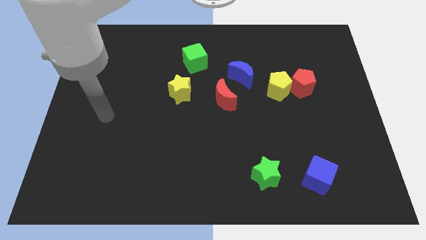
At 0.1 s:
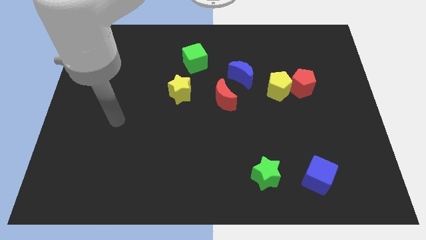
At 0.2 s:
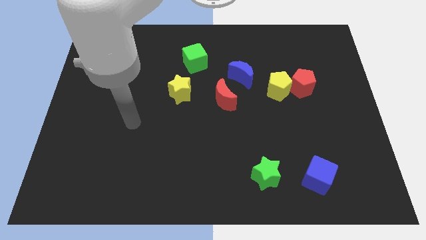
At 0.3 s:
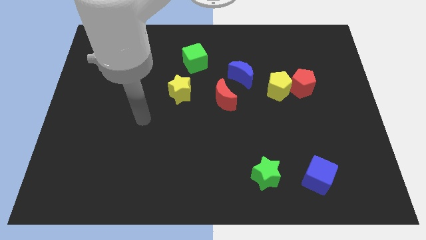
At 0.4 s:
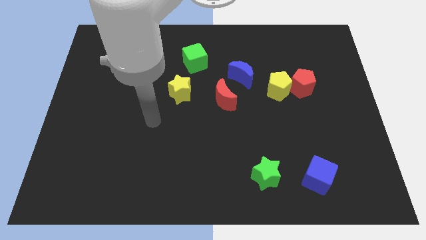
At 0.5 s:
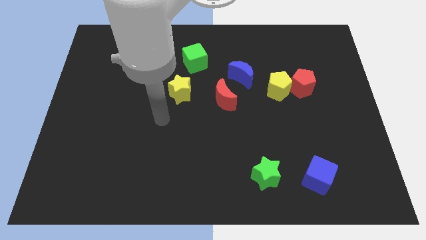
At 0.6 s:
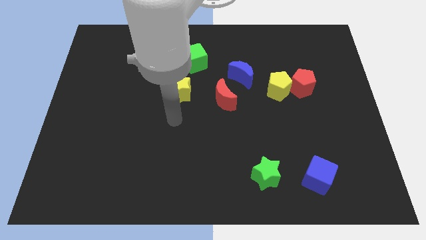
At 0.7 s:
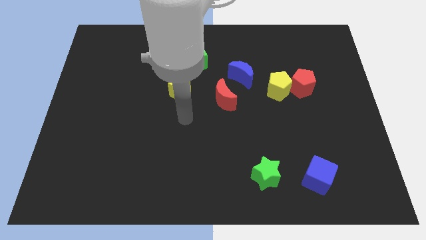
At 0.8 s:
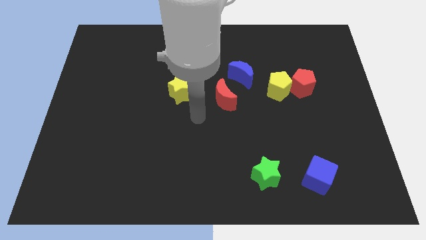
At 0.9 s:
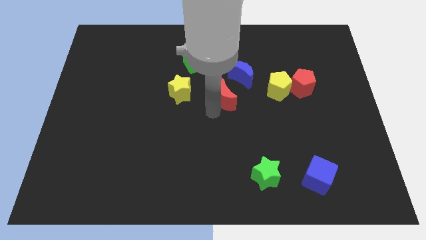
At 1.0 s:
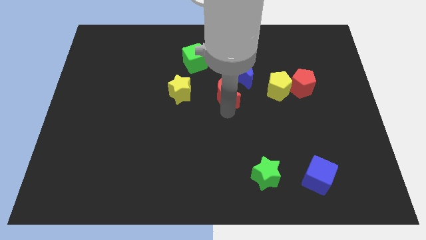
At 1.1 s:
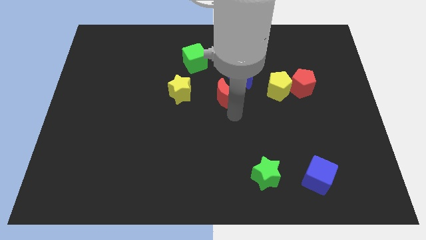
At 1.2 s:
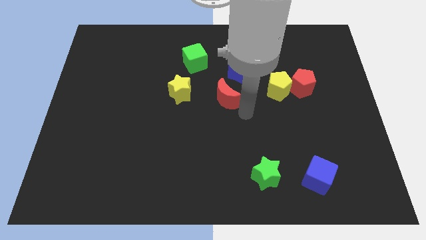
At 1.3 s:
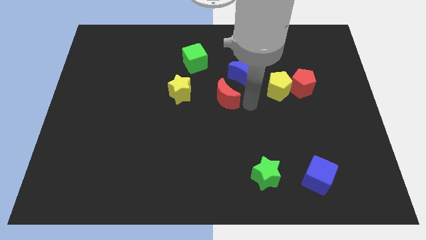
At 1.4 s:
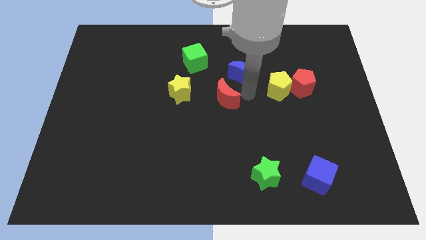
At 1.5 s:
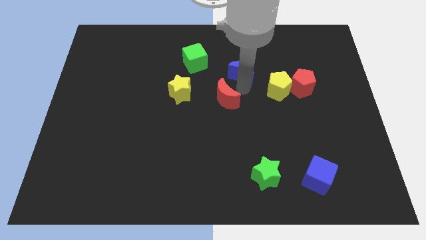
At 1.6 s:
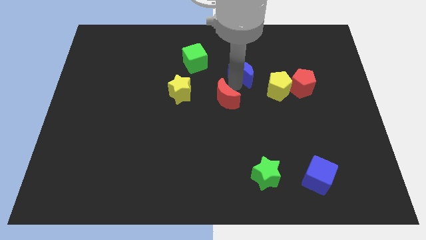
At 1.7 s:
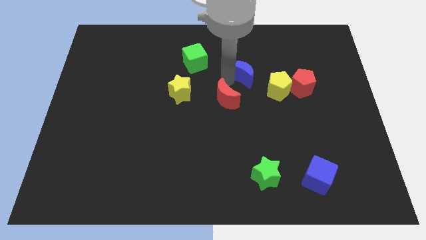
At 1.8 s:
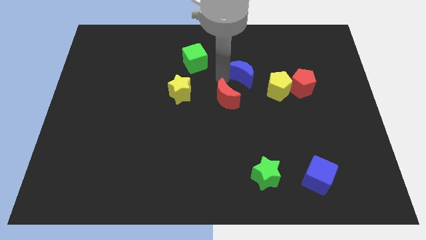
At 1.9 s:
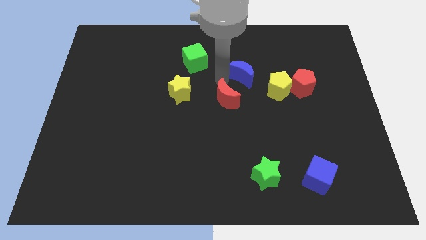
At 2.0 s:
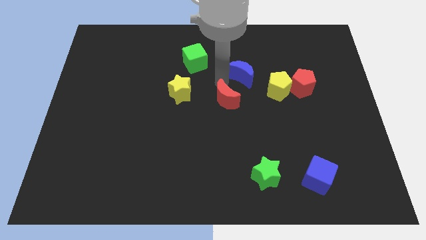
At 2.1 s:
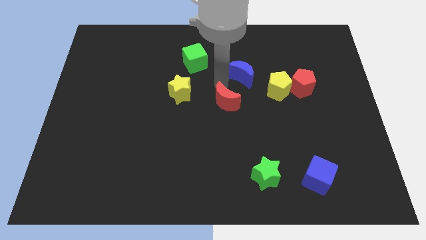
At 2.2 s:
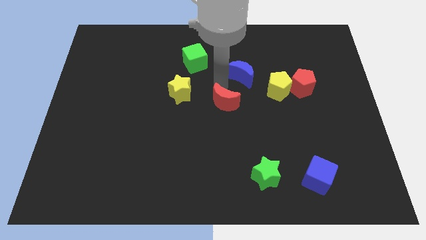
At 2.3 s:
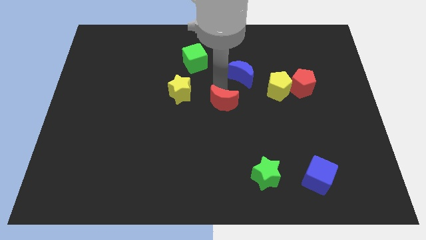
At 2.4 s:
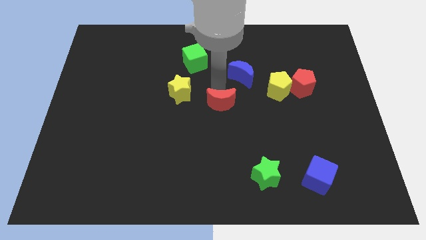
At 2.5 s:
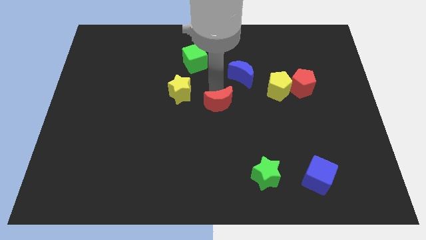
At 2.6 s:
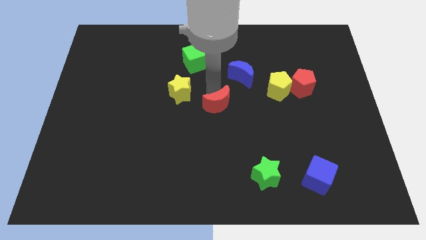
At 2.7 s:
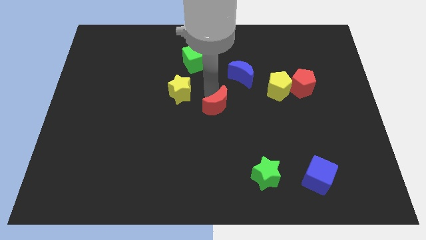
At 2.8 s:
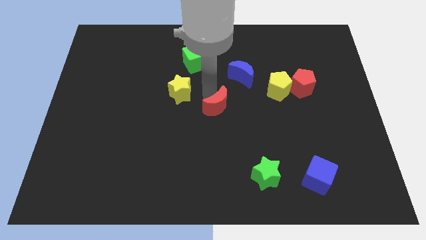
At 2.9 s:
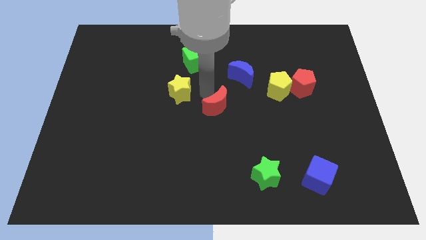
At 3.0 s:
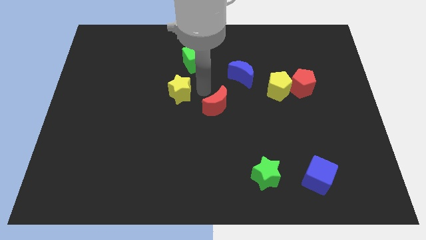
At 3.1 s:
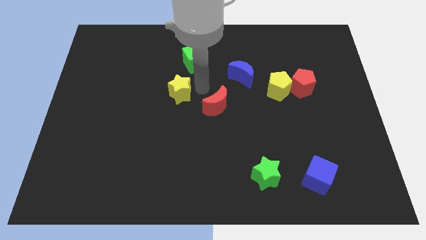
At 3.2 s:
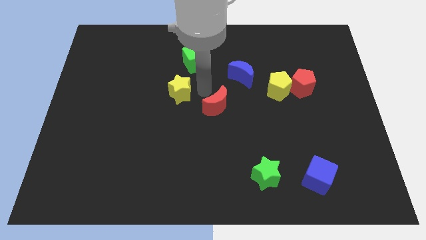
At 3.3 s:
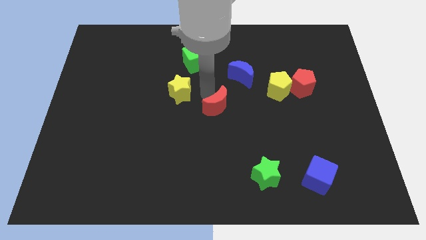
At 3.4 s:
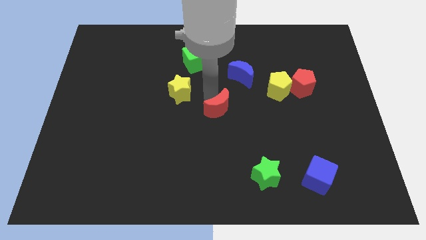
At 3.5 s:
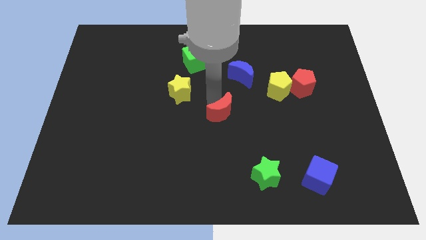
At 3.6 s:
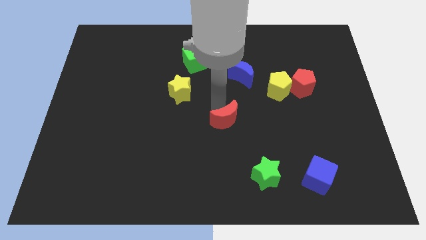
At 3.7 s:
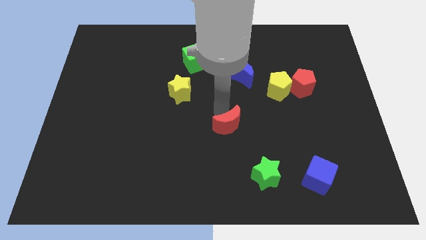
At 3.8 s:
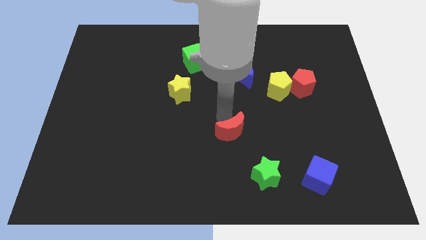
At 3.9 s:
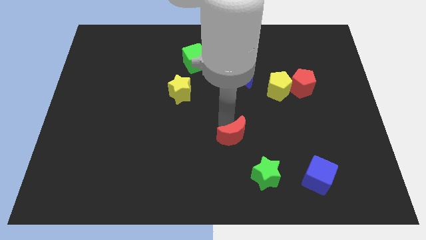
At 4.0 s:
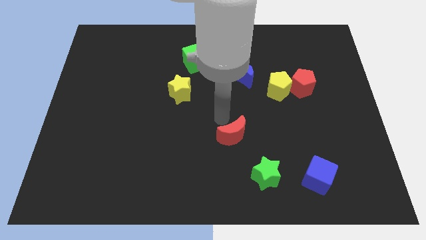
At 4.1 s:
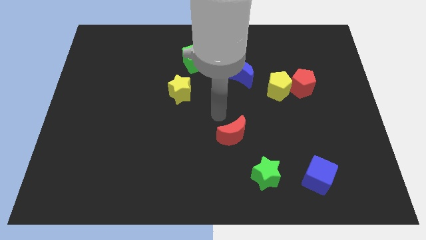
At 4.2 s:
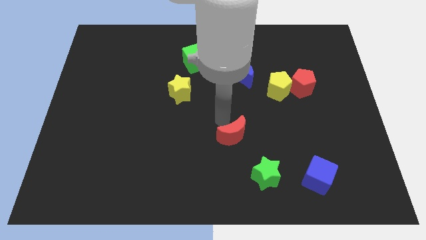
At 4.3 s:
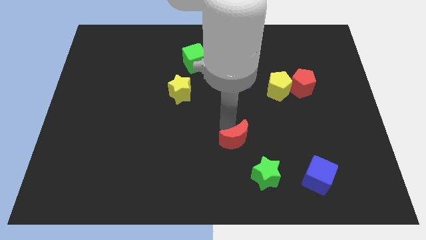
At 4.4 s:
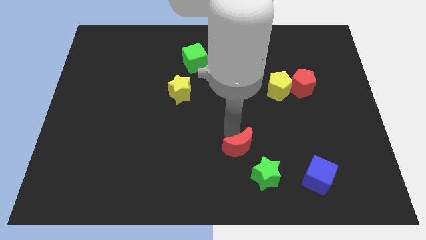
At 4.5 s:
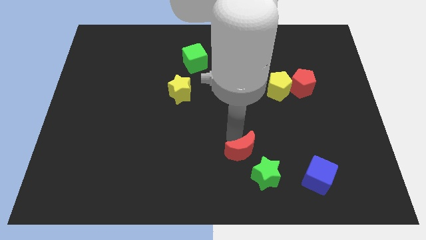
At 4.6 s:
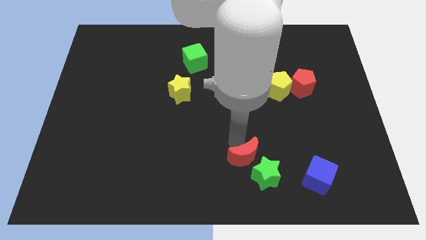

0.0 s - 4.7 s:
put the red moon towards the green star

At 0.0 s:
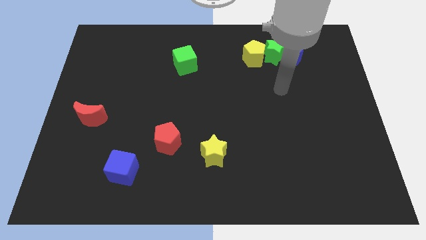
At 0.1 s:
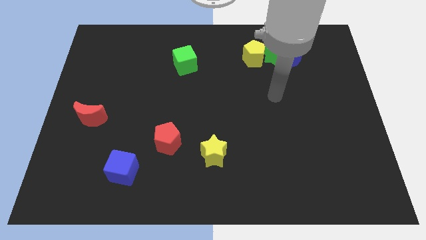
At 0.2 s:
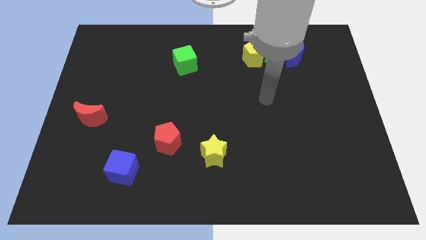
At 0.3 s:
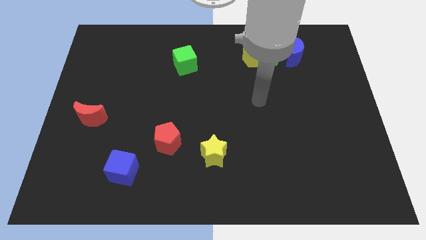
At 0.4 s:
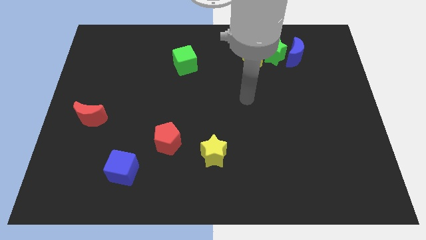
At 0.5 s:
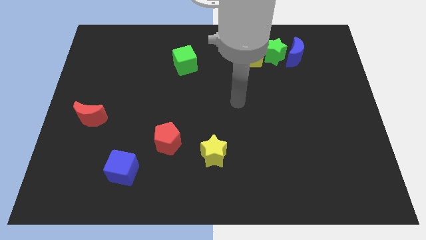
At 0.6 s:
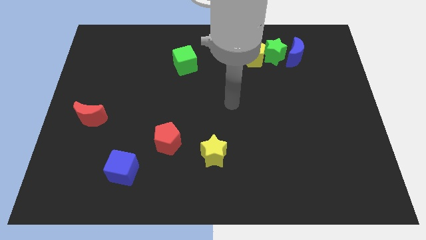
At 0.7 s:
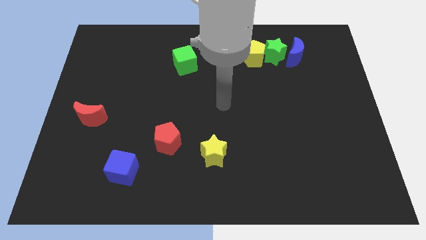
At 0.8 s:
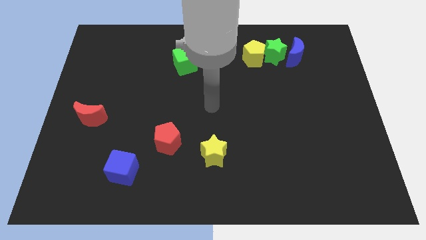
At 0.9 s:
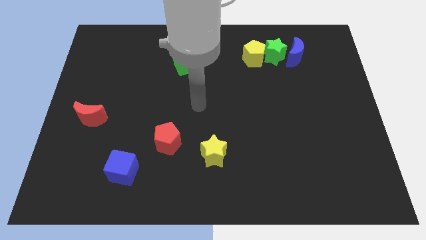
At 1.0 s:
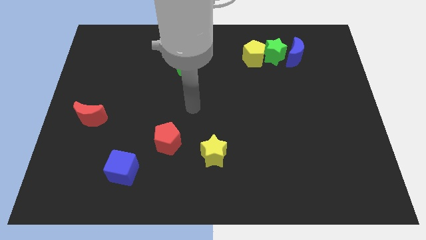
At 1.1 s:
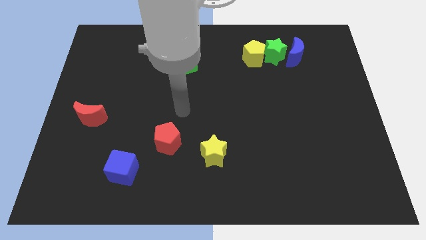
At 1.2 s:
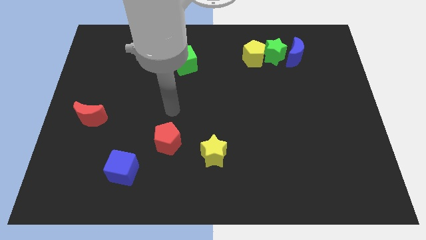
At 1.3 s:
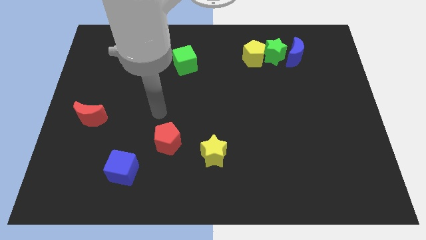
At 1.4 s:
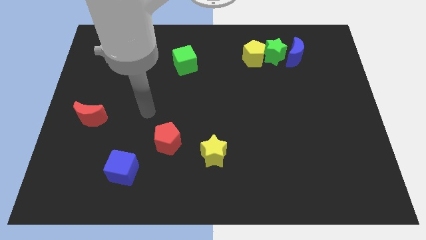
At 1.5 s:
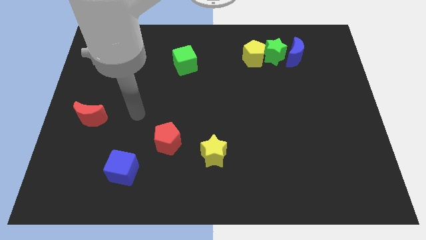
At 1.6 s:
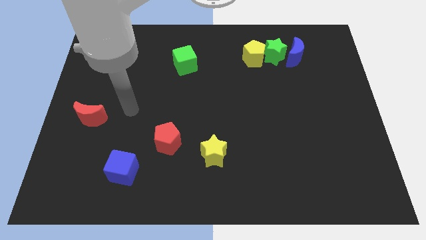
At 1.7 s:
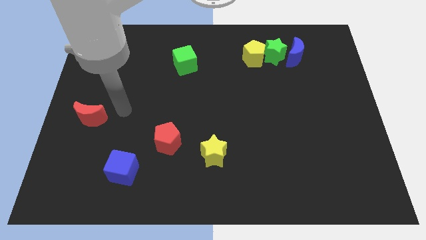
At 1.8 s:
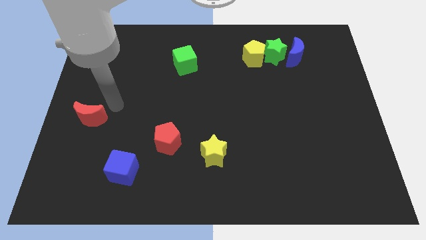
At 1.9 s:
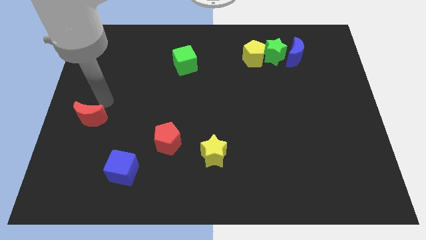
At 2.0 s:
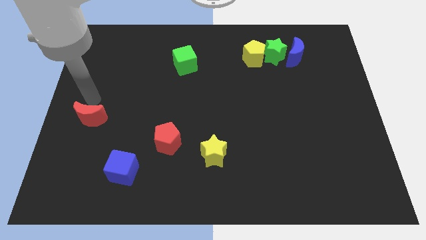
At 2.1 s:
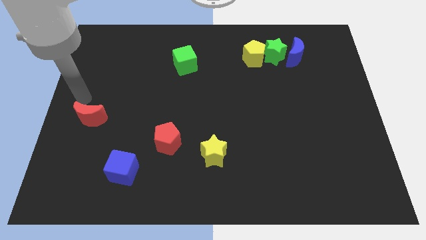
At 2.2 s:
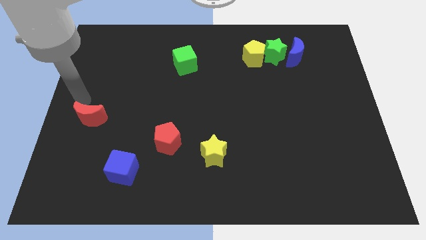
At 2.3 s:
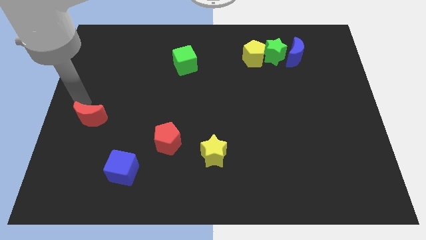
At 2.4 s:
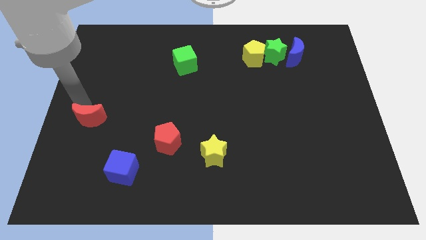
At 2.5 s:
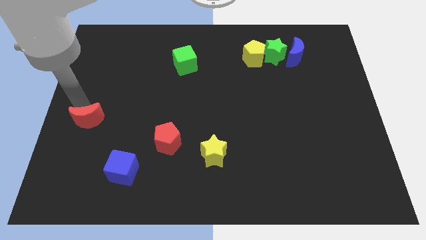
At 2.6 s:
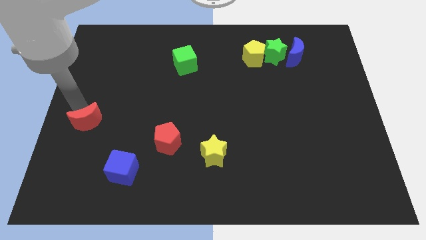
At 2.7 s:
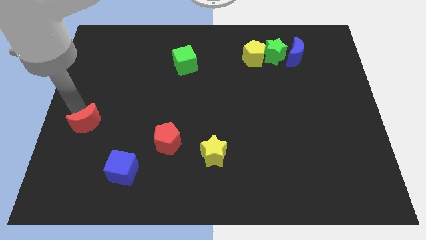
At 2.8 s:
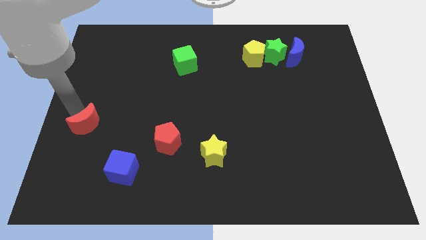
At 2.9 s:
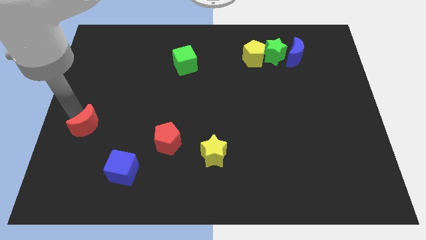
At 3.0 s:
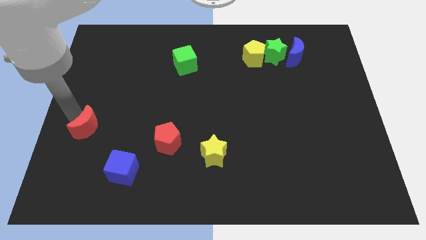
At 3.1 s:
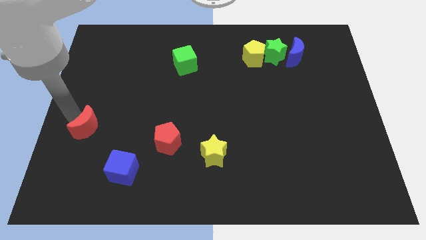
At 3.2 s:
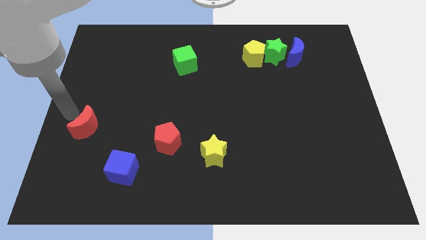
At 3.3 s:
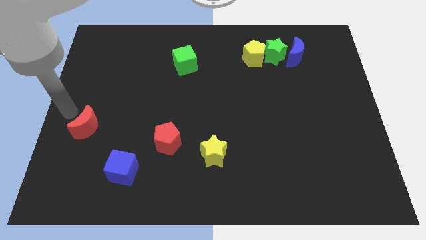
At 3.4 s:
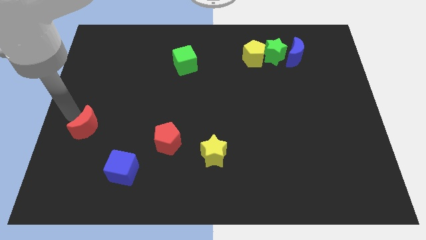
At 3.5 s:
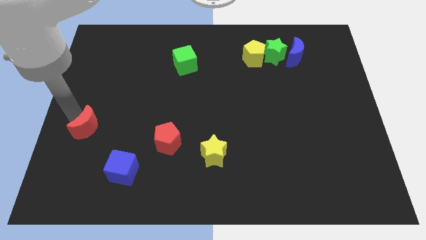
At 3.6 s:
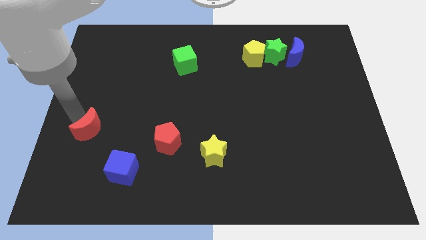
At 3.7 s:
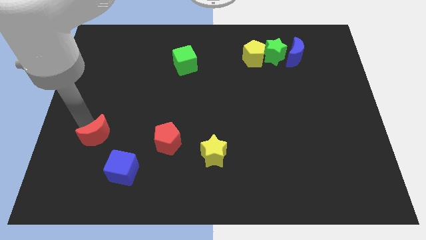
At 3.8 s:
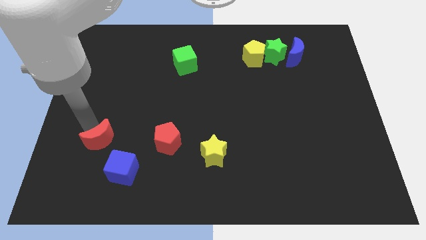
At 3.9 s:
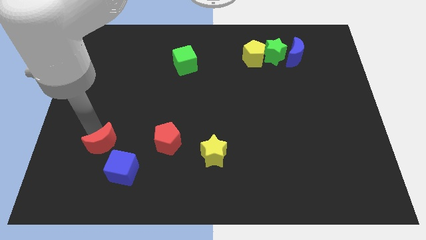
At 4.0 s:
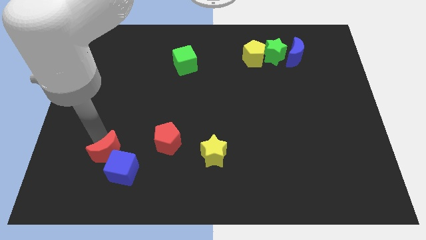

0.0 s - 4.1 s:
slide the red moon to the blue cube
